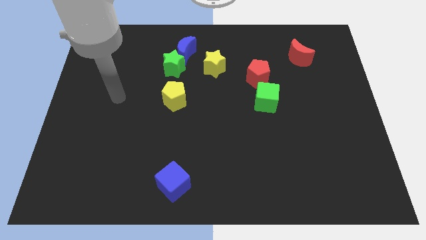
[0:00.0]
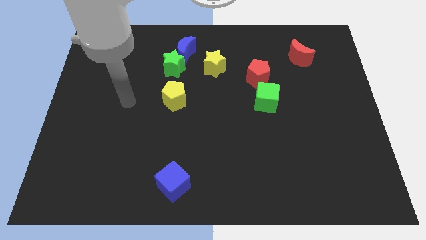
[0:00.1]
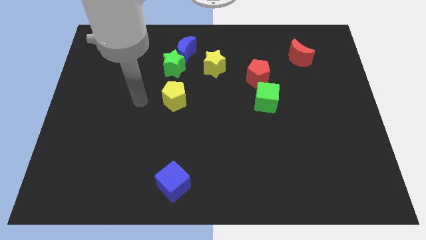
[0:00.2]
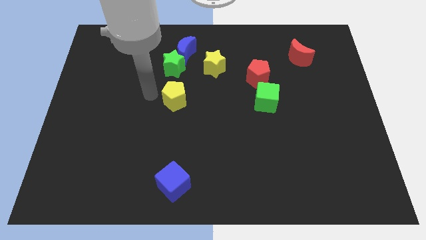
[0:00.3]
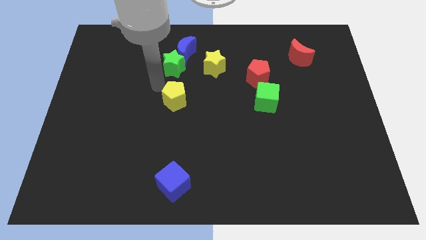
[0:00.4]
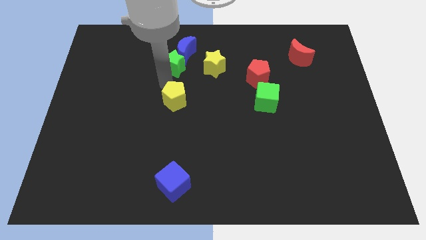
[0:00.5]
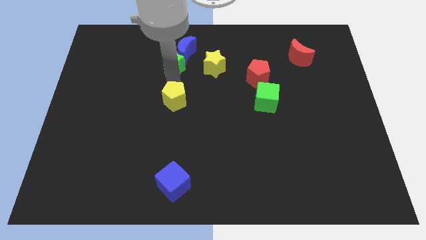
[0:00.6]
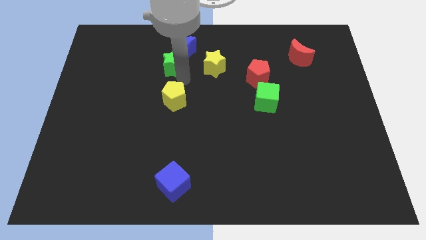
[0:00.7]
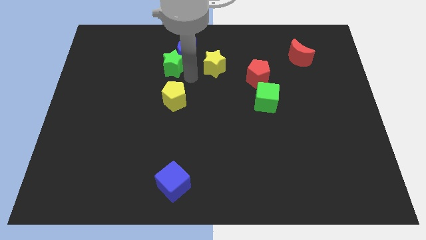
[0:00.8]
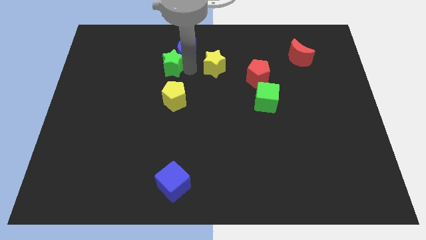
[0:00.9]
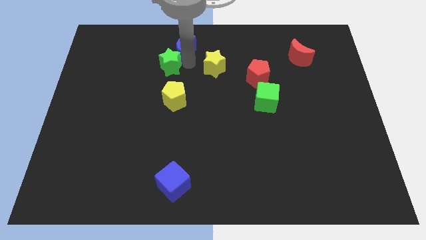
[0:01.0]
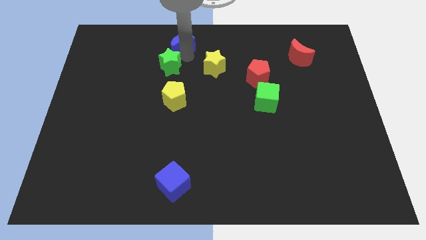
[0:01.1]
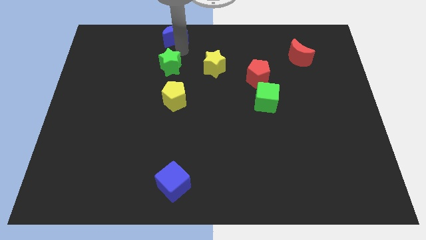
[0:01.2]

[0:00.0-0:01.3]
separate the green star from the blue moon

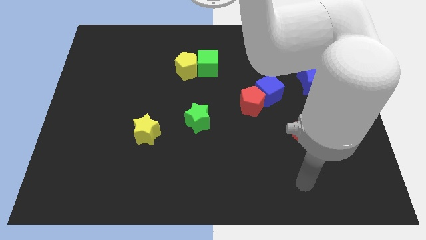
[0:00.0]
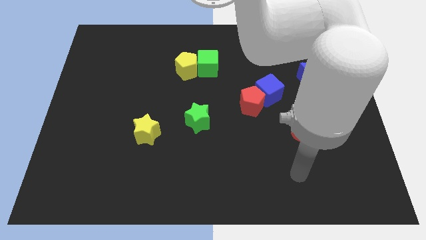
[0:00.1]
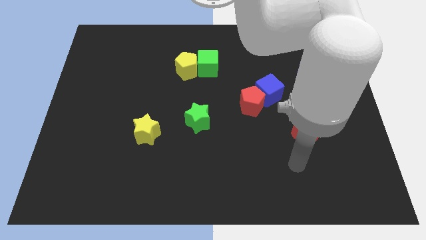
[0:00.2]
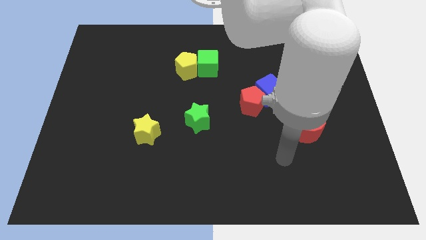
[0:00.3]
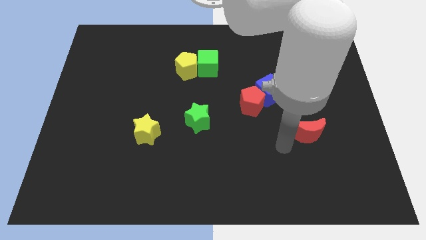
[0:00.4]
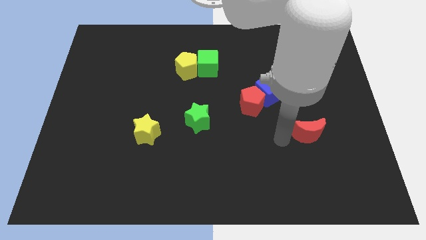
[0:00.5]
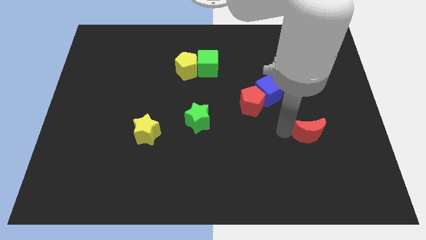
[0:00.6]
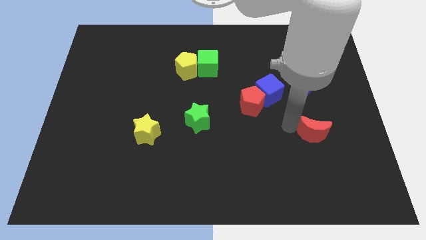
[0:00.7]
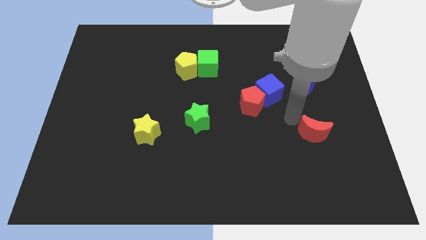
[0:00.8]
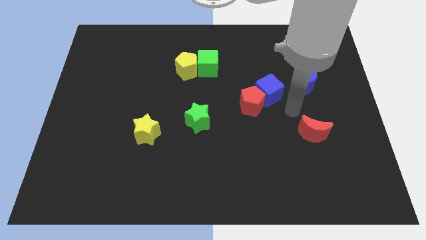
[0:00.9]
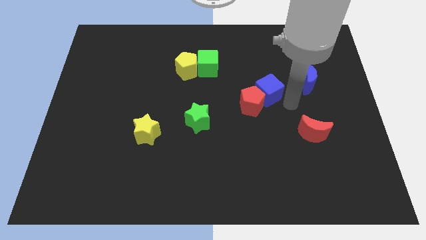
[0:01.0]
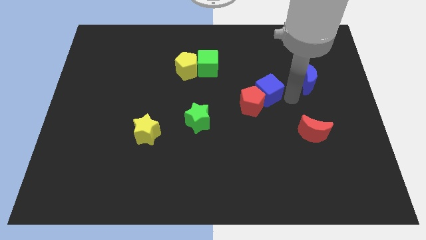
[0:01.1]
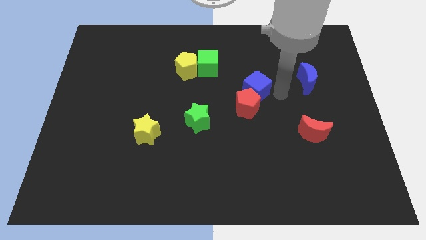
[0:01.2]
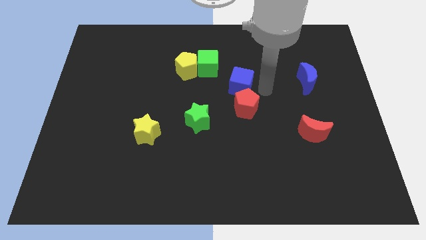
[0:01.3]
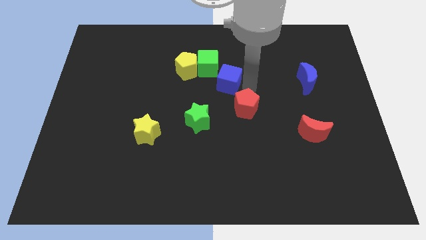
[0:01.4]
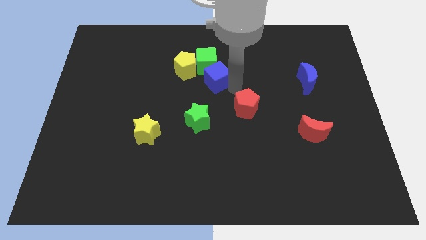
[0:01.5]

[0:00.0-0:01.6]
pull the red pentagon apart from the blue cube

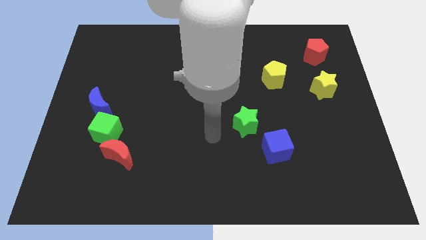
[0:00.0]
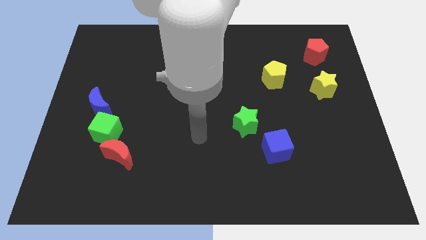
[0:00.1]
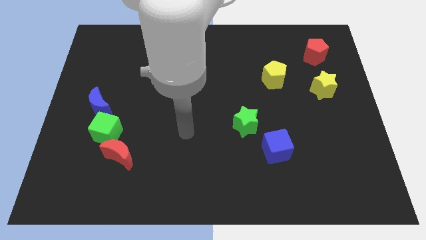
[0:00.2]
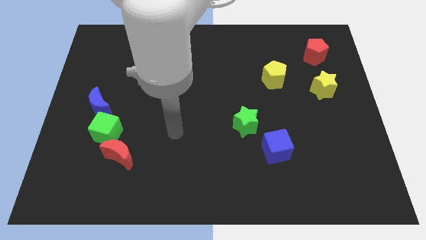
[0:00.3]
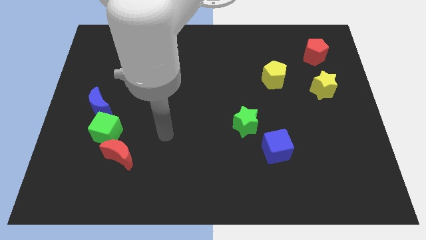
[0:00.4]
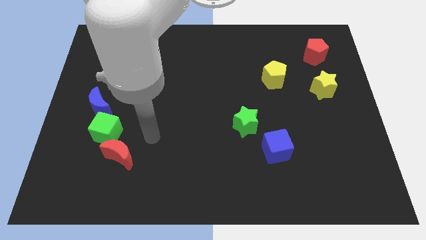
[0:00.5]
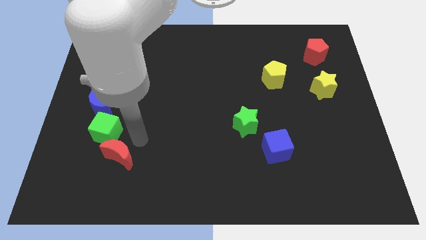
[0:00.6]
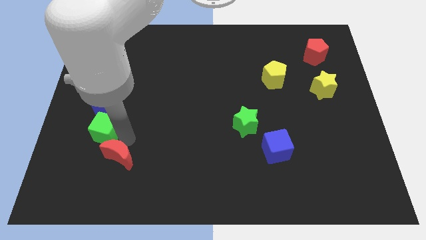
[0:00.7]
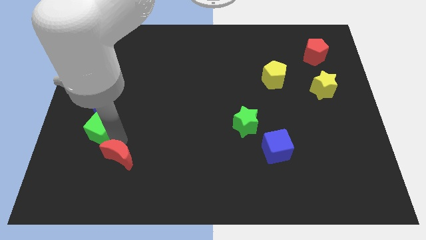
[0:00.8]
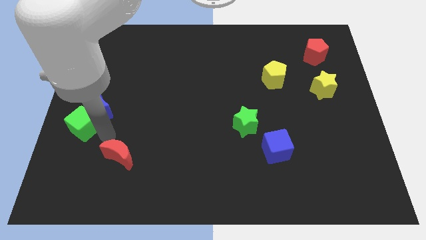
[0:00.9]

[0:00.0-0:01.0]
separate the red moon from the green cube

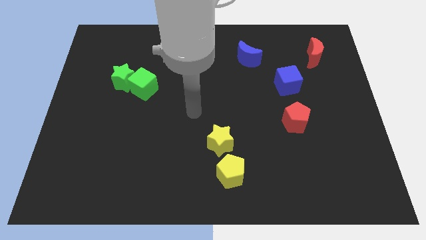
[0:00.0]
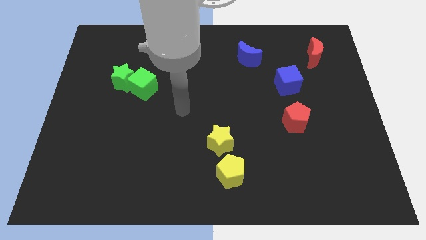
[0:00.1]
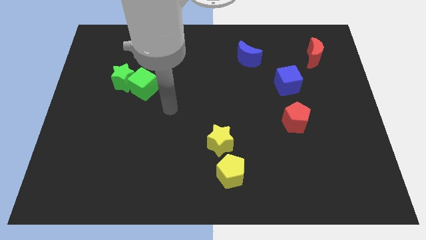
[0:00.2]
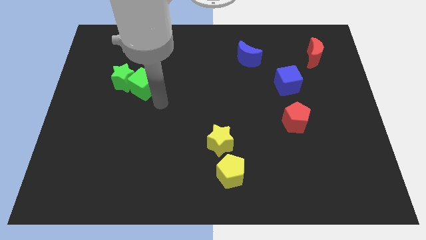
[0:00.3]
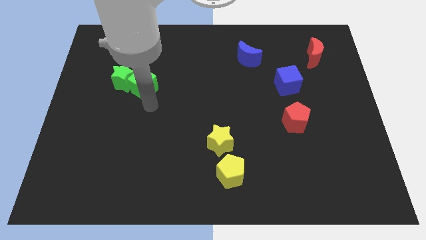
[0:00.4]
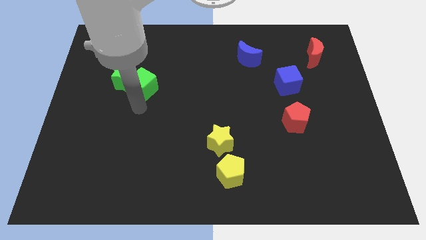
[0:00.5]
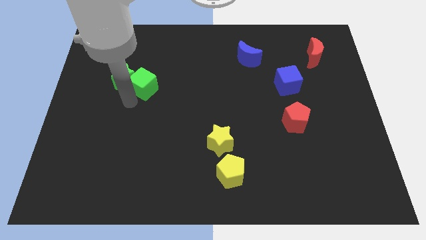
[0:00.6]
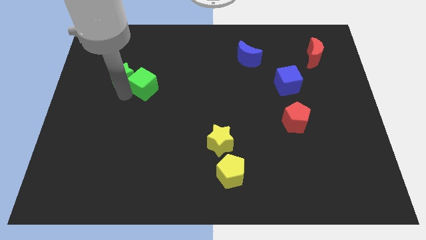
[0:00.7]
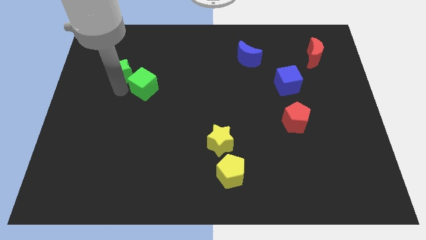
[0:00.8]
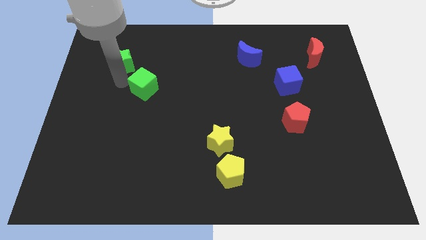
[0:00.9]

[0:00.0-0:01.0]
pull the green cube apart from the green star

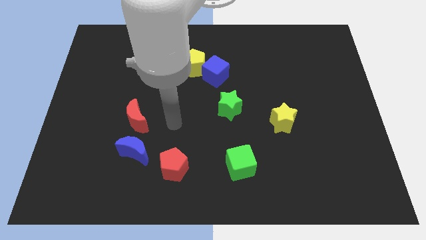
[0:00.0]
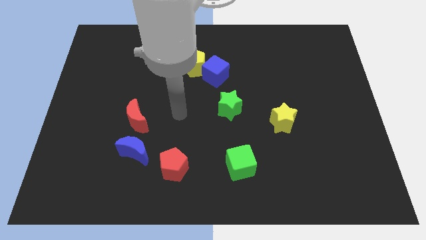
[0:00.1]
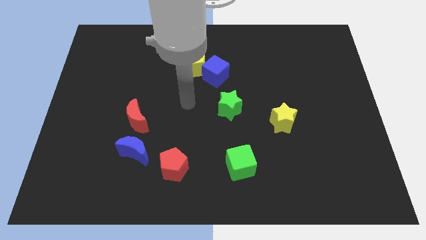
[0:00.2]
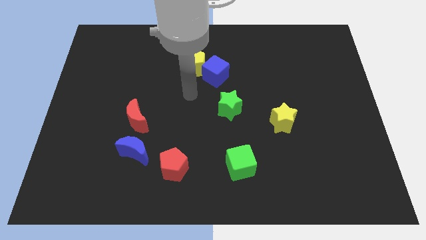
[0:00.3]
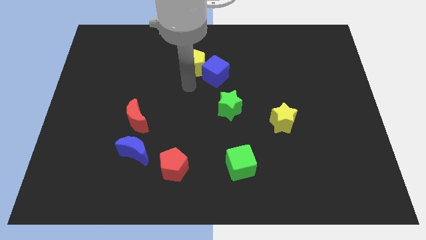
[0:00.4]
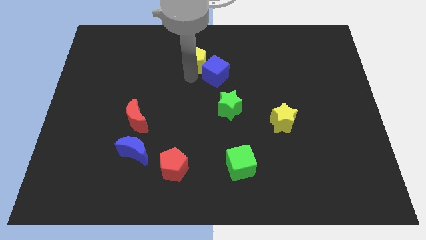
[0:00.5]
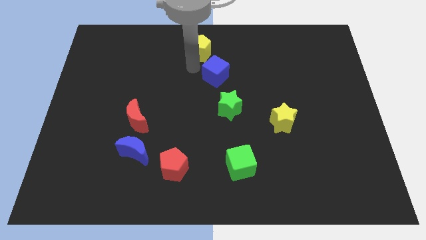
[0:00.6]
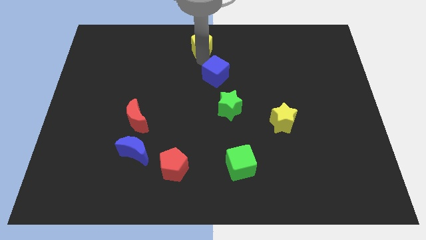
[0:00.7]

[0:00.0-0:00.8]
move the blue cube away from the yellow pentagon

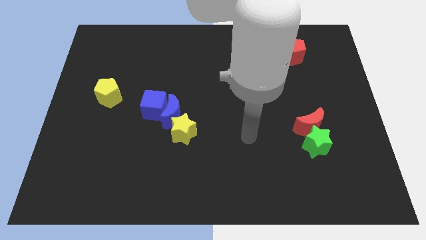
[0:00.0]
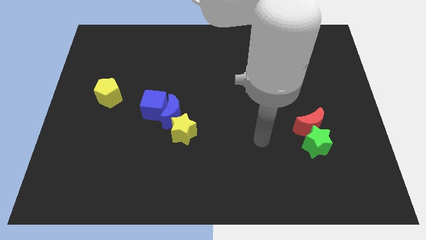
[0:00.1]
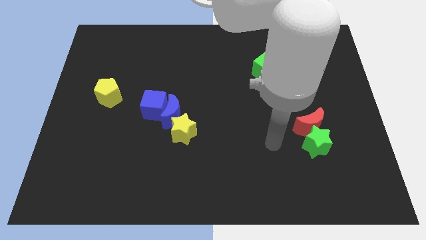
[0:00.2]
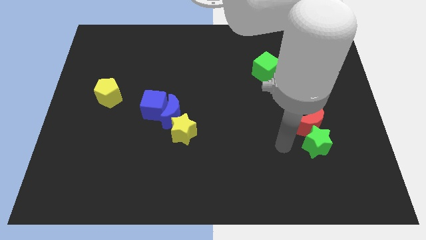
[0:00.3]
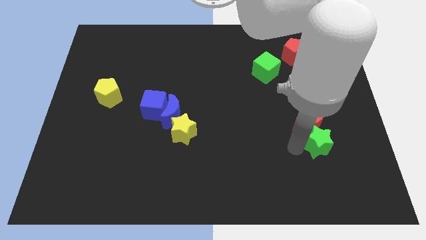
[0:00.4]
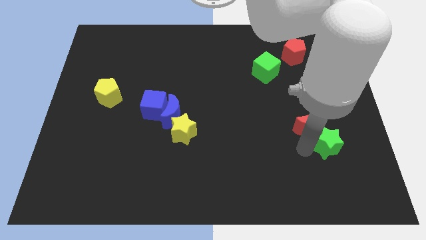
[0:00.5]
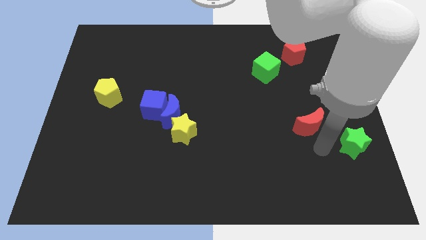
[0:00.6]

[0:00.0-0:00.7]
move the red moon away from the green star

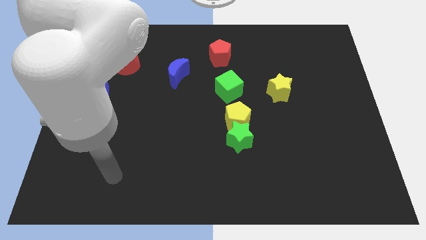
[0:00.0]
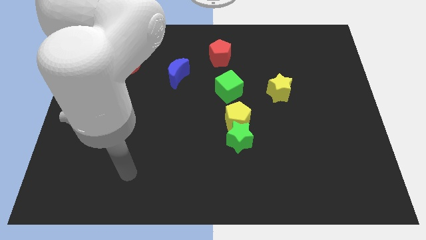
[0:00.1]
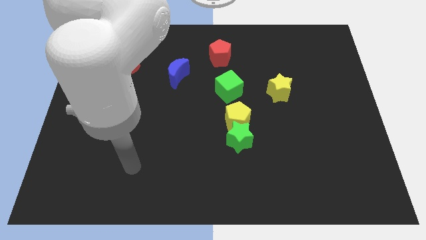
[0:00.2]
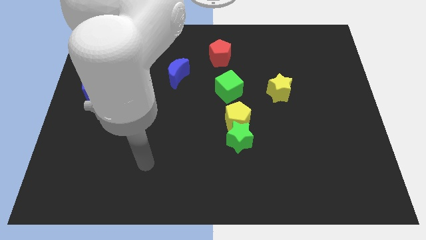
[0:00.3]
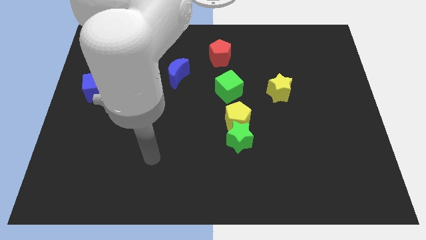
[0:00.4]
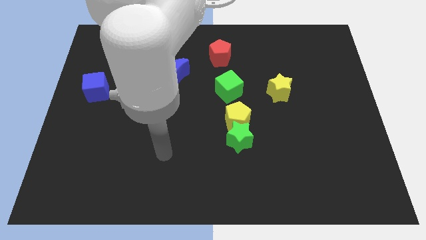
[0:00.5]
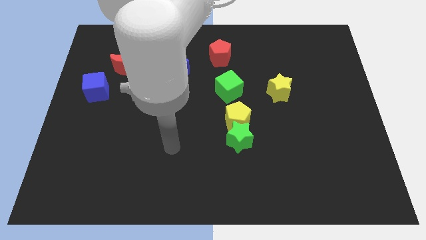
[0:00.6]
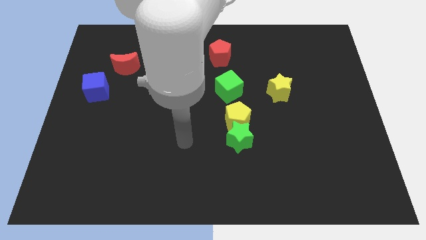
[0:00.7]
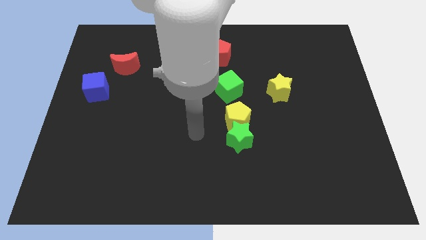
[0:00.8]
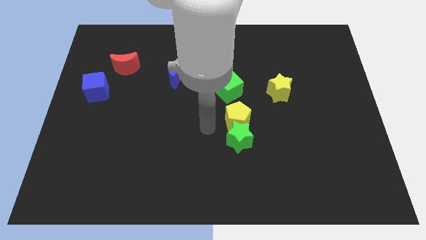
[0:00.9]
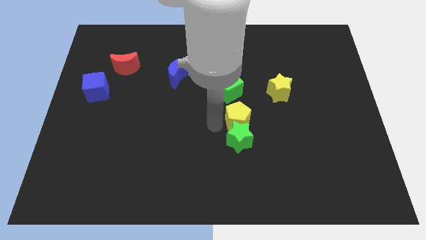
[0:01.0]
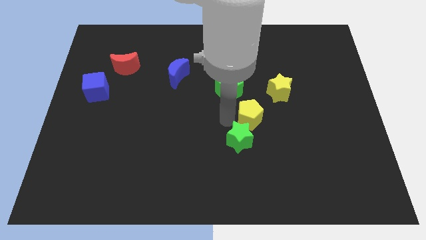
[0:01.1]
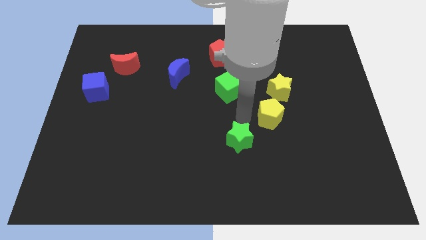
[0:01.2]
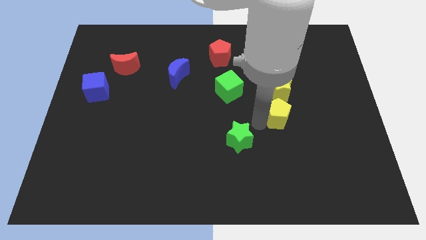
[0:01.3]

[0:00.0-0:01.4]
pull the green star apart from the yellow pentagon

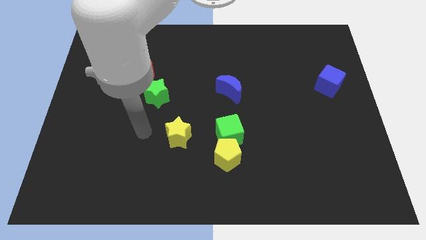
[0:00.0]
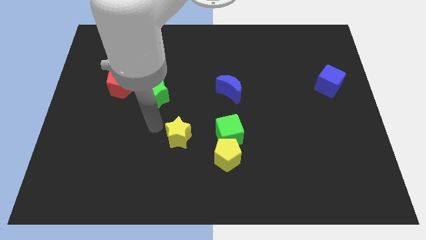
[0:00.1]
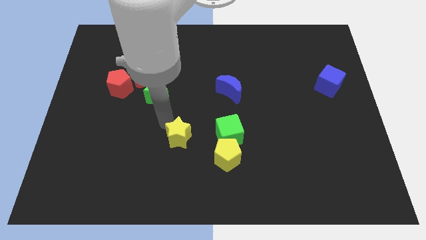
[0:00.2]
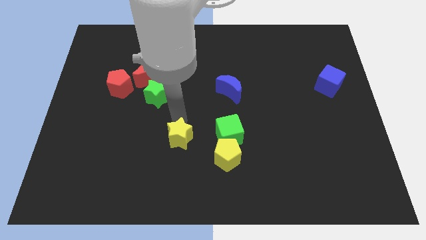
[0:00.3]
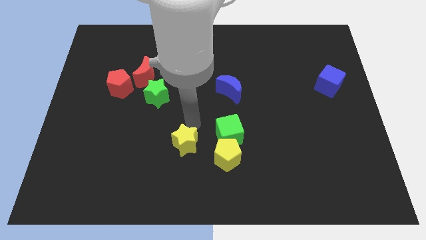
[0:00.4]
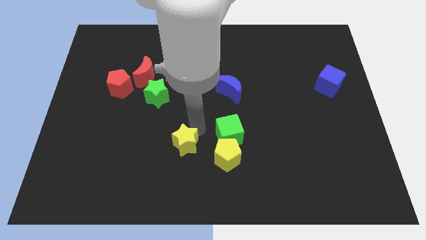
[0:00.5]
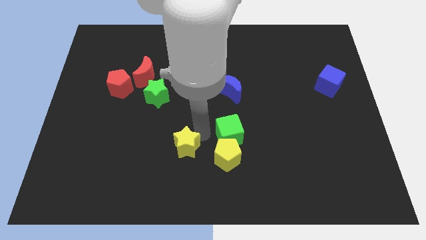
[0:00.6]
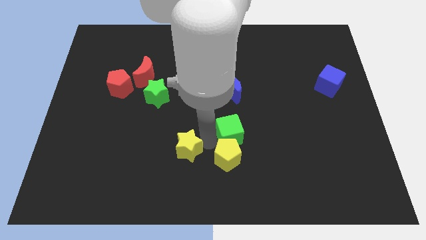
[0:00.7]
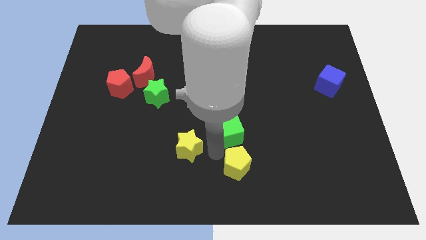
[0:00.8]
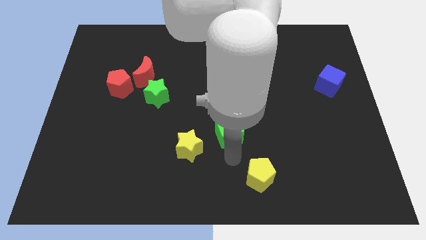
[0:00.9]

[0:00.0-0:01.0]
separate the green cube from the yellow pentagon

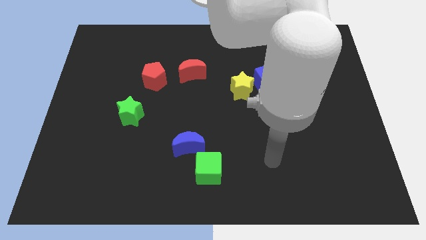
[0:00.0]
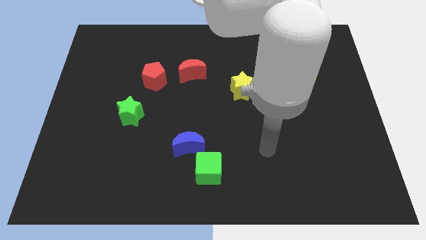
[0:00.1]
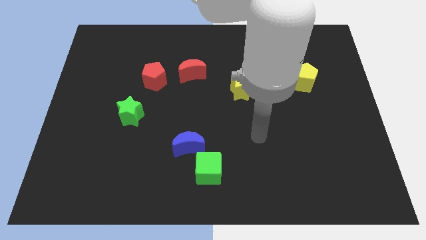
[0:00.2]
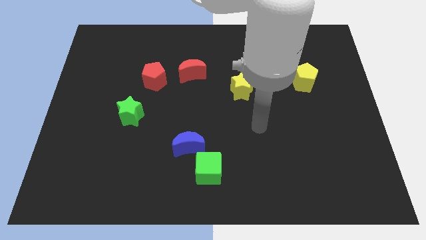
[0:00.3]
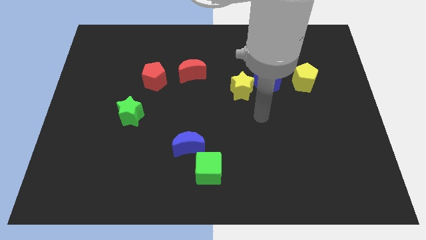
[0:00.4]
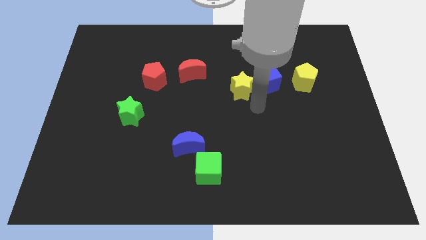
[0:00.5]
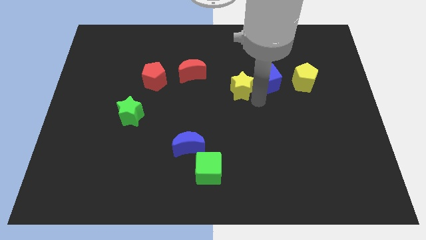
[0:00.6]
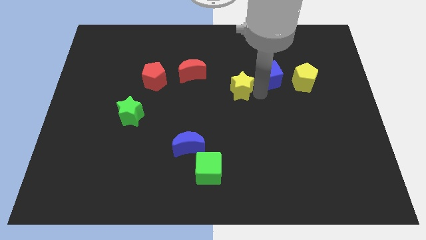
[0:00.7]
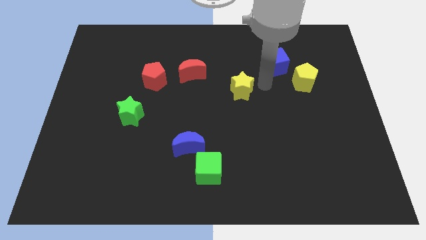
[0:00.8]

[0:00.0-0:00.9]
pull the yellow star apart from the blue cube
